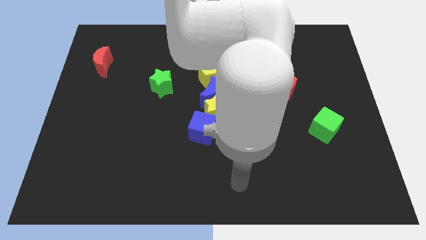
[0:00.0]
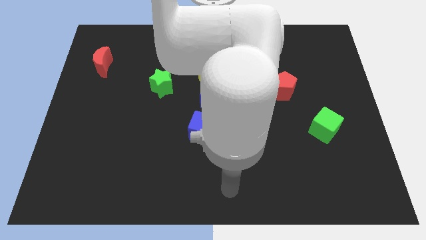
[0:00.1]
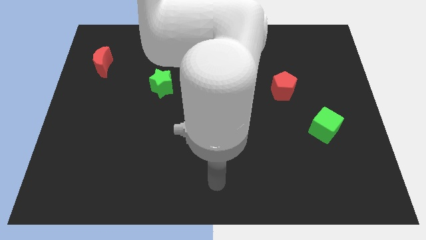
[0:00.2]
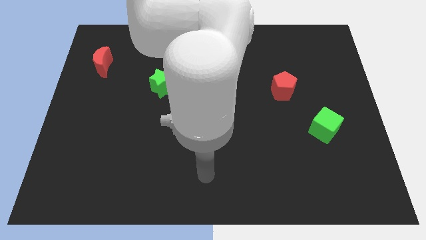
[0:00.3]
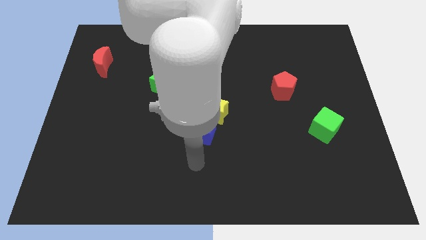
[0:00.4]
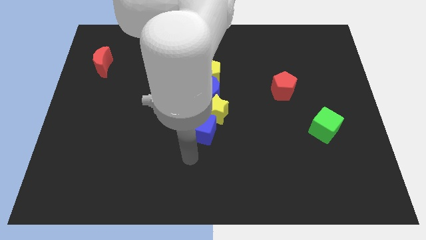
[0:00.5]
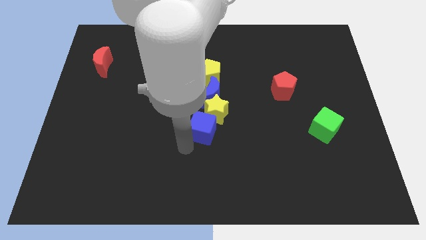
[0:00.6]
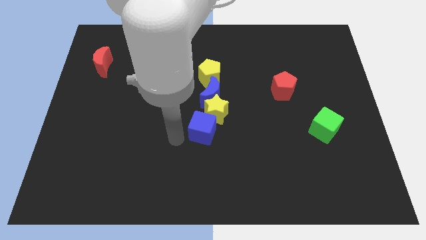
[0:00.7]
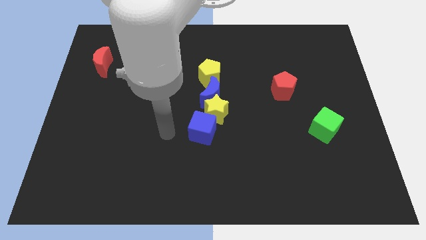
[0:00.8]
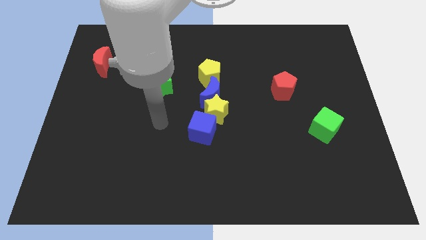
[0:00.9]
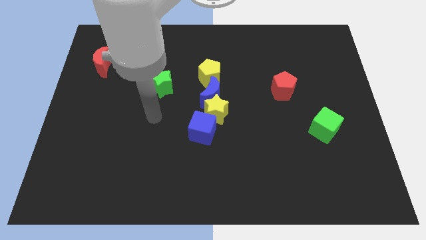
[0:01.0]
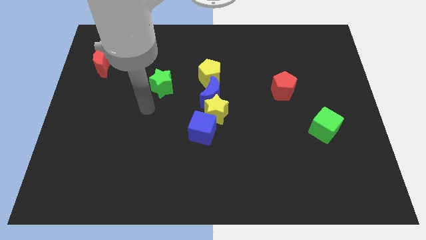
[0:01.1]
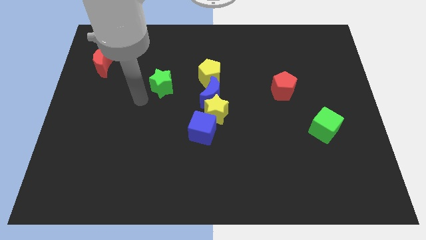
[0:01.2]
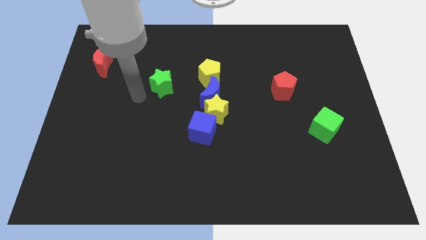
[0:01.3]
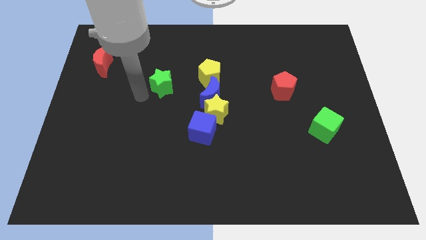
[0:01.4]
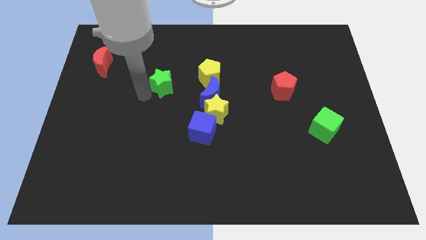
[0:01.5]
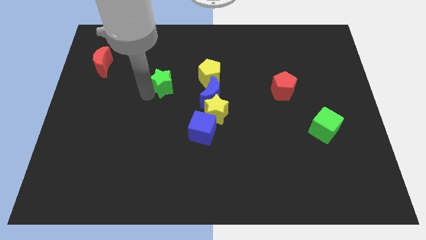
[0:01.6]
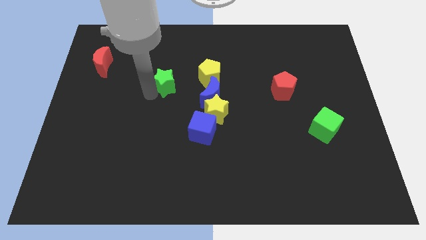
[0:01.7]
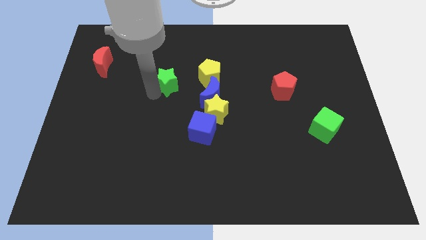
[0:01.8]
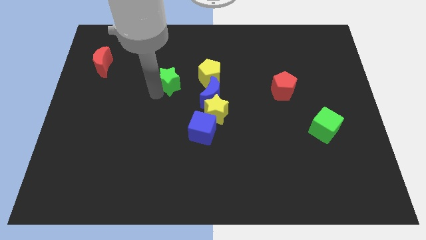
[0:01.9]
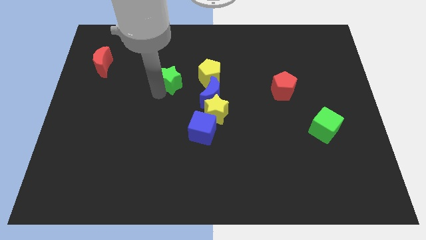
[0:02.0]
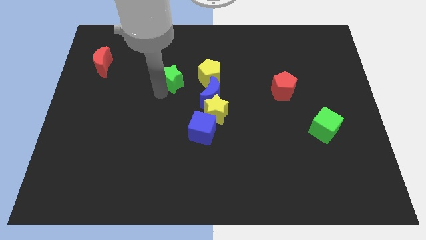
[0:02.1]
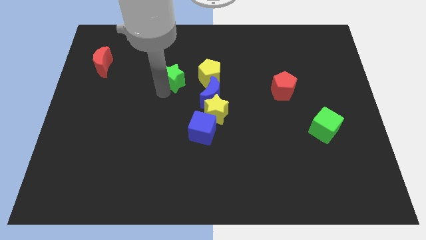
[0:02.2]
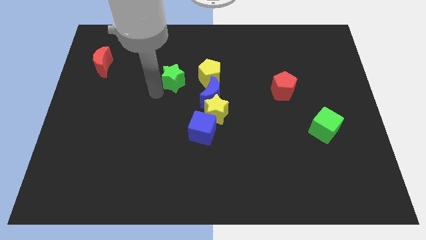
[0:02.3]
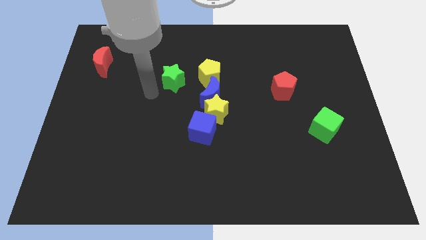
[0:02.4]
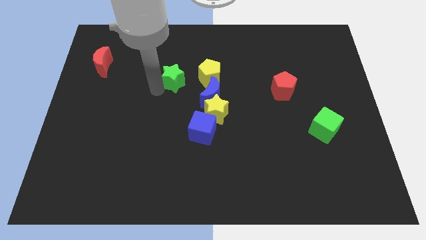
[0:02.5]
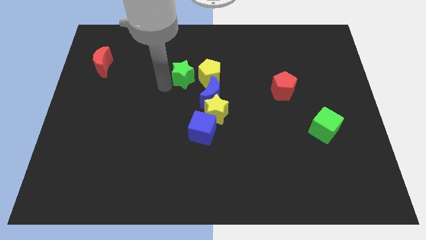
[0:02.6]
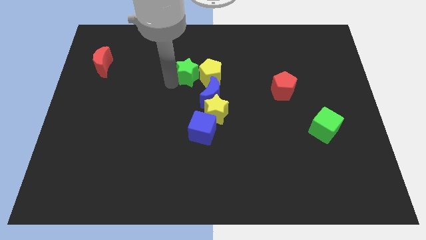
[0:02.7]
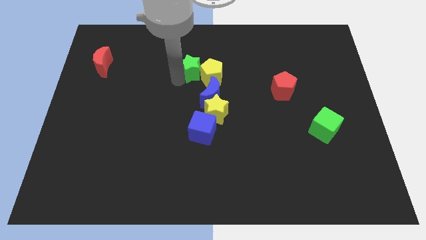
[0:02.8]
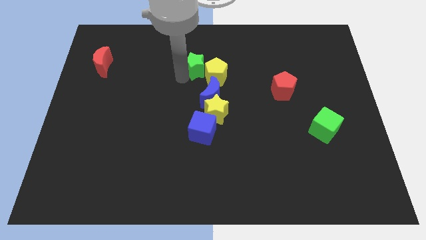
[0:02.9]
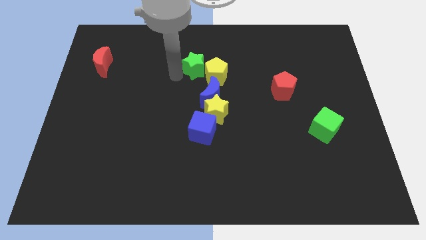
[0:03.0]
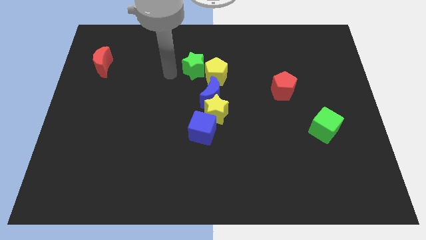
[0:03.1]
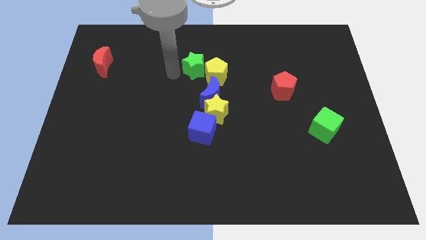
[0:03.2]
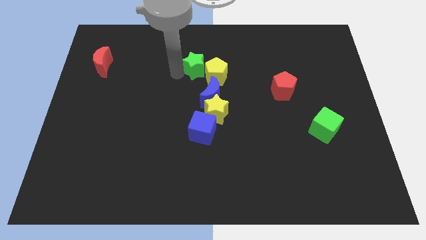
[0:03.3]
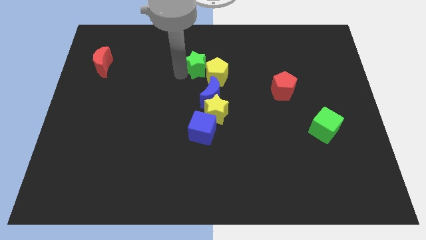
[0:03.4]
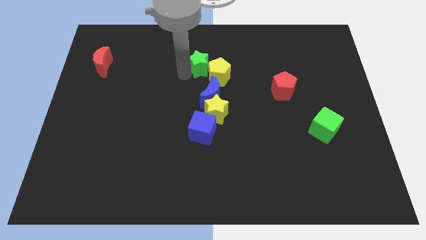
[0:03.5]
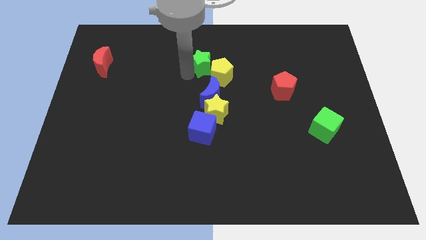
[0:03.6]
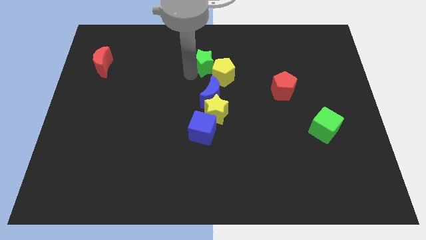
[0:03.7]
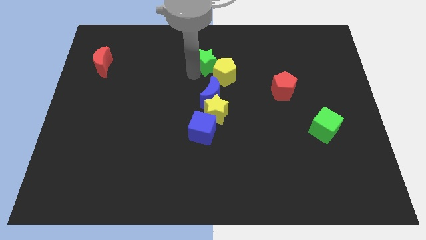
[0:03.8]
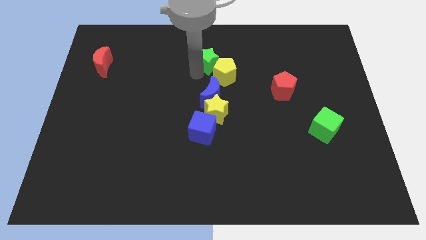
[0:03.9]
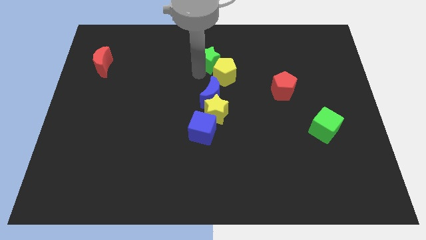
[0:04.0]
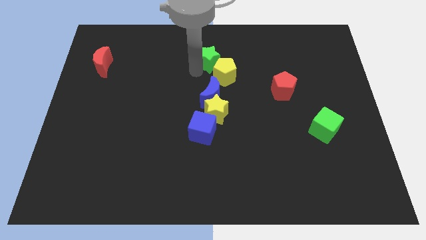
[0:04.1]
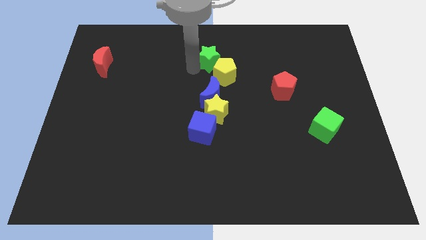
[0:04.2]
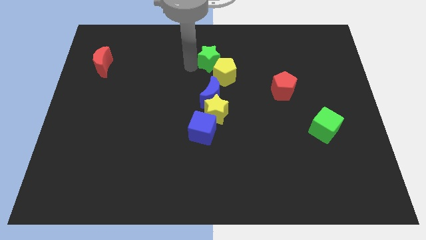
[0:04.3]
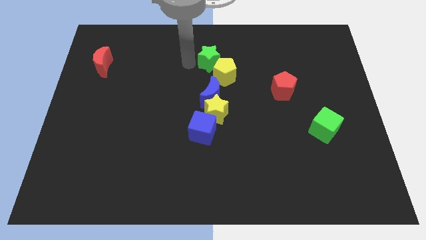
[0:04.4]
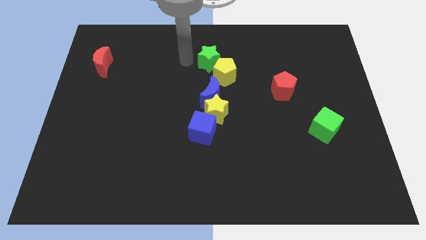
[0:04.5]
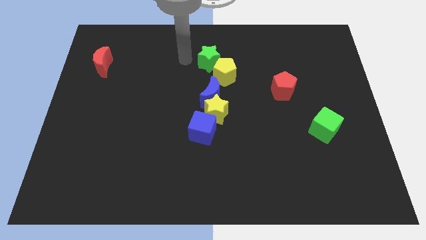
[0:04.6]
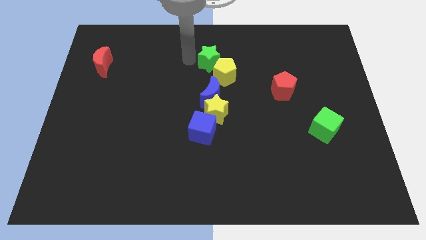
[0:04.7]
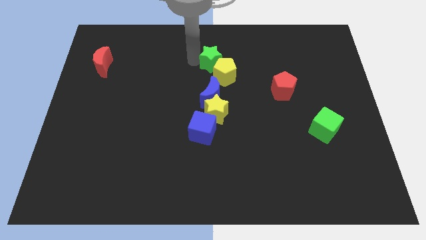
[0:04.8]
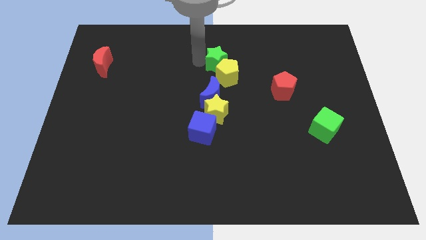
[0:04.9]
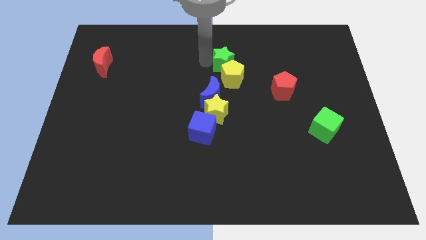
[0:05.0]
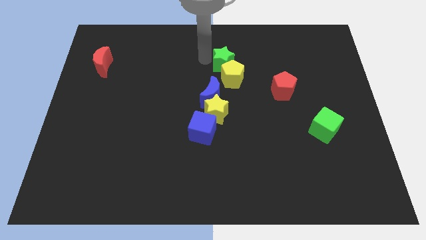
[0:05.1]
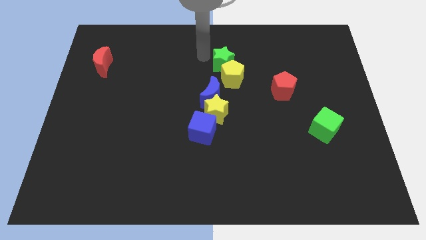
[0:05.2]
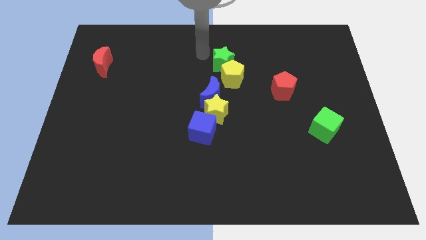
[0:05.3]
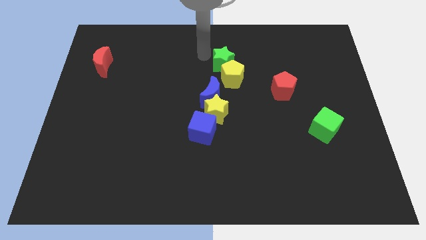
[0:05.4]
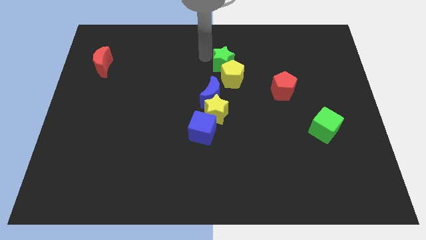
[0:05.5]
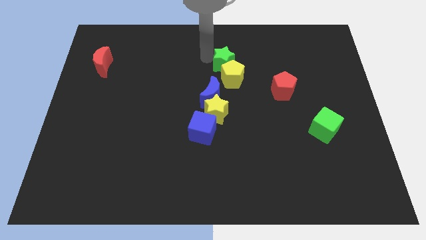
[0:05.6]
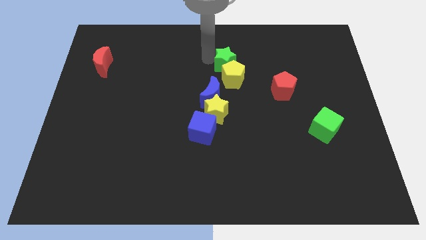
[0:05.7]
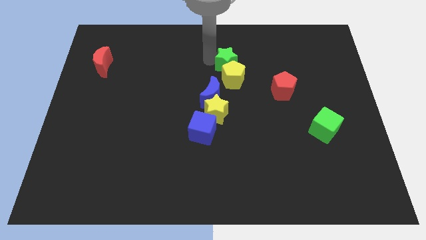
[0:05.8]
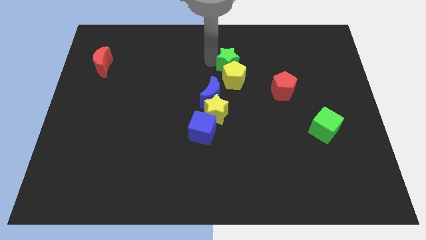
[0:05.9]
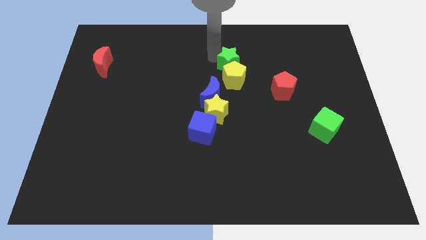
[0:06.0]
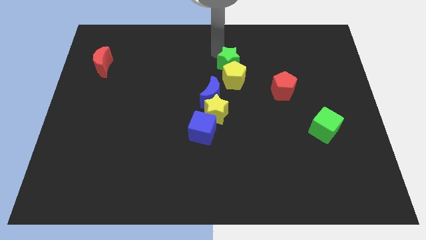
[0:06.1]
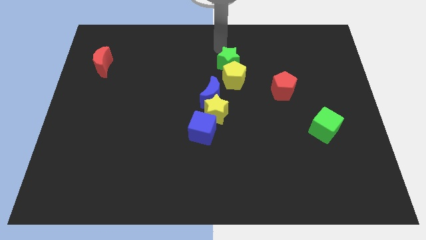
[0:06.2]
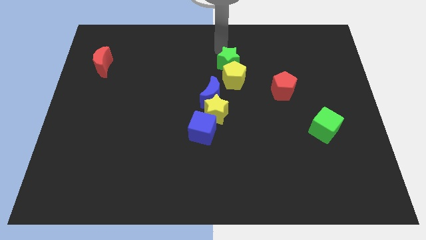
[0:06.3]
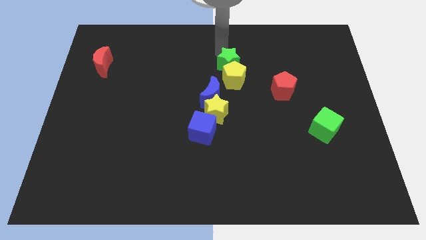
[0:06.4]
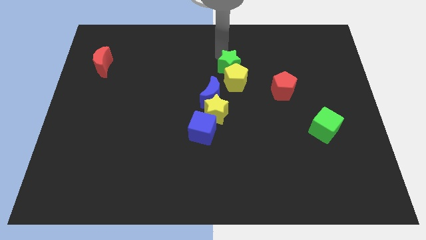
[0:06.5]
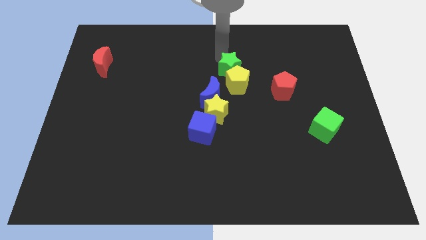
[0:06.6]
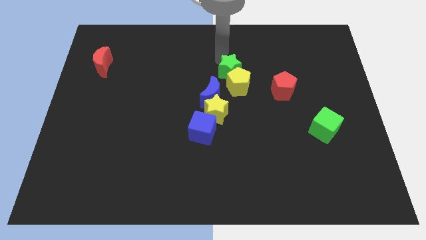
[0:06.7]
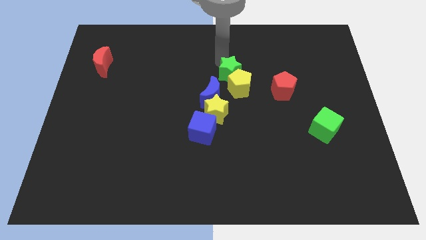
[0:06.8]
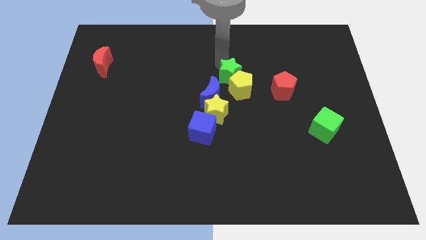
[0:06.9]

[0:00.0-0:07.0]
push the green star to the left of the red pentagon
